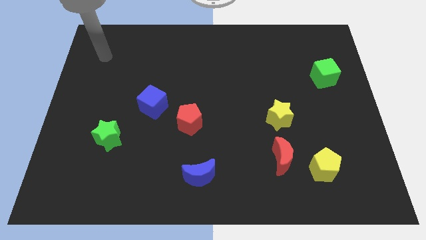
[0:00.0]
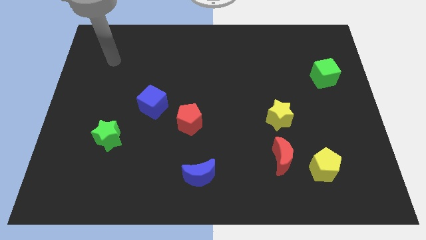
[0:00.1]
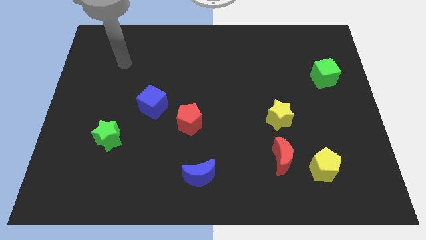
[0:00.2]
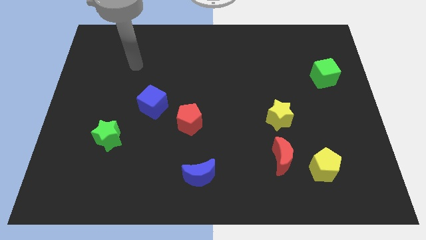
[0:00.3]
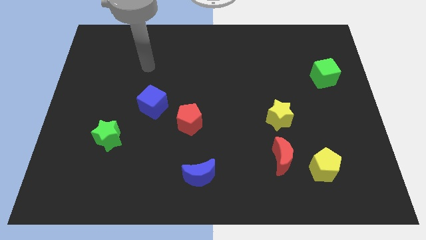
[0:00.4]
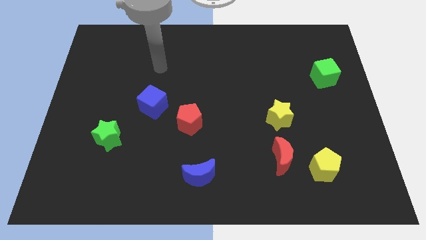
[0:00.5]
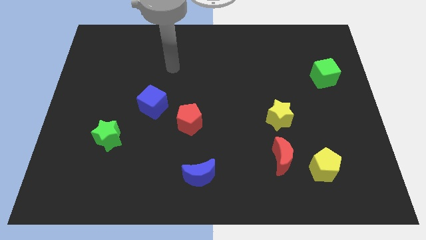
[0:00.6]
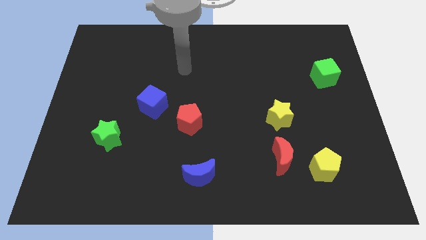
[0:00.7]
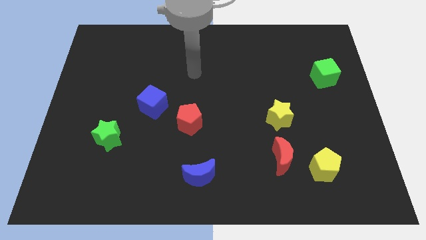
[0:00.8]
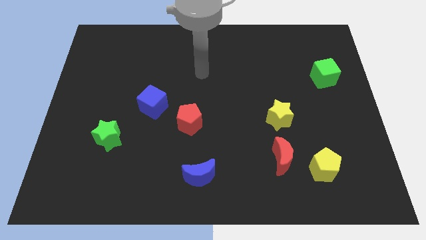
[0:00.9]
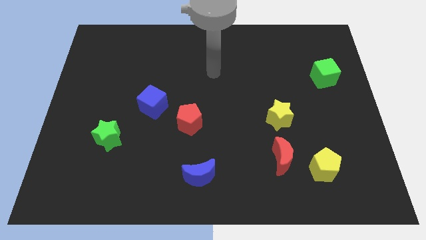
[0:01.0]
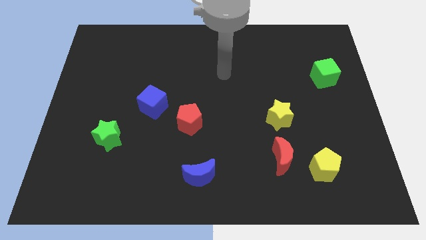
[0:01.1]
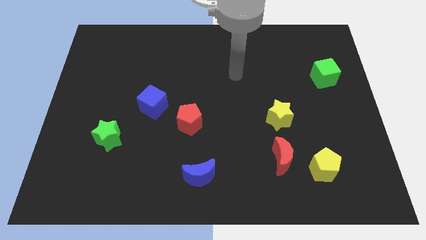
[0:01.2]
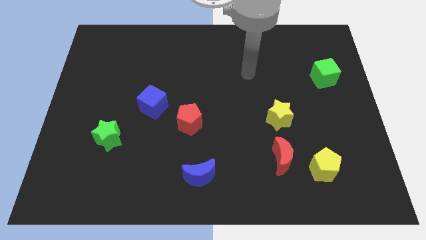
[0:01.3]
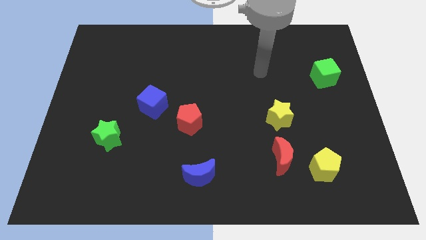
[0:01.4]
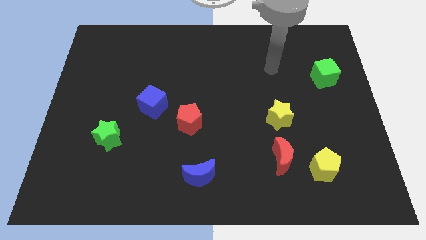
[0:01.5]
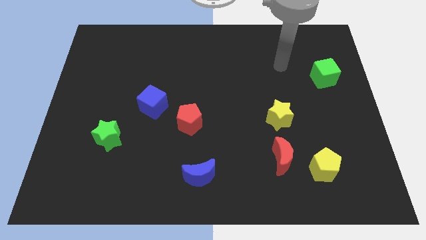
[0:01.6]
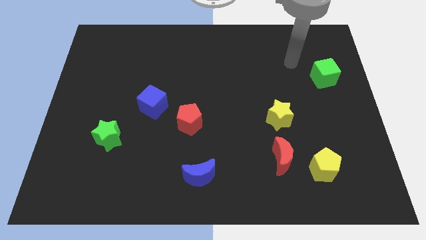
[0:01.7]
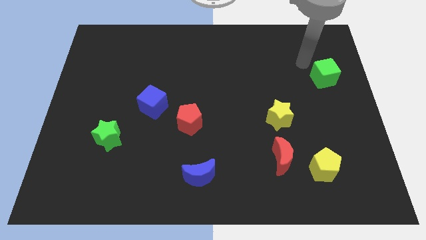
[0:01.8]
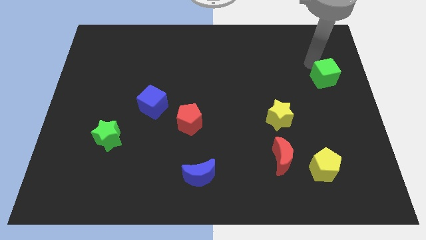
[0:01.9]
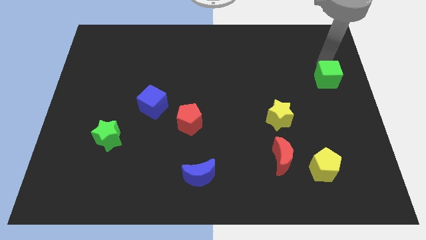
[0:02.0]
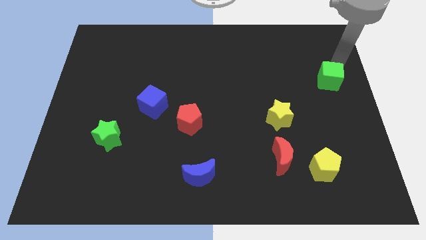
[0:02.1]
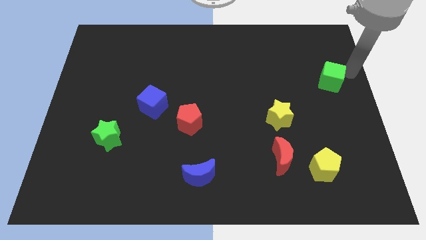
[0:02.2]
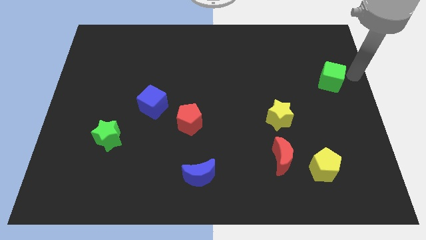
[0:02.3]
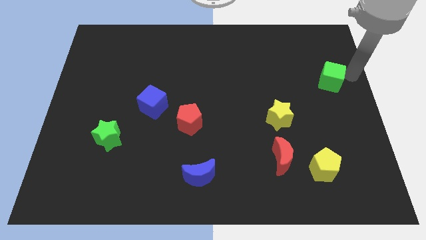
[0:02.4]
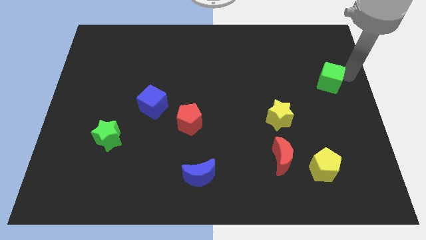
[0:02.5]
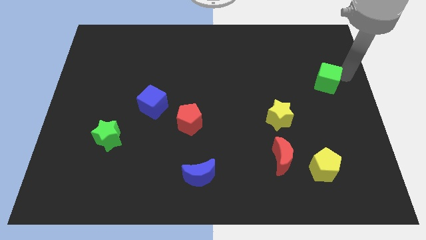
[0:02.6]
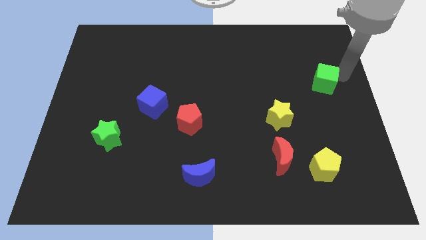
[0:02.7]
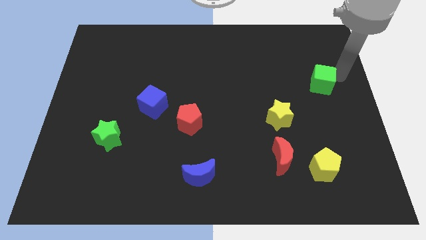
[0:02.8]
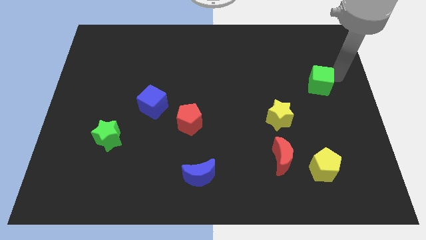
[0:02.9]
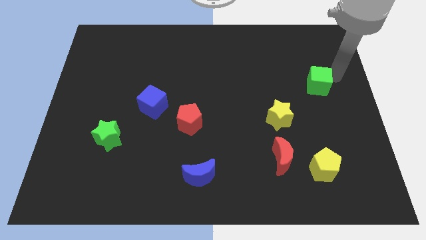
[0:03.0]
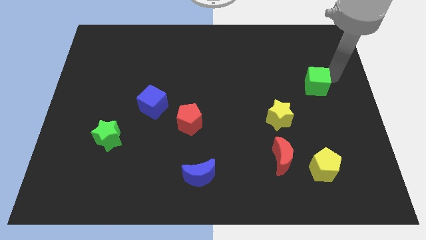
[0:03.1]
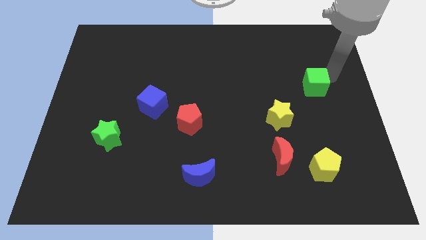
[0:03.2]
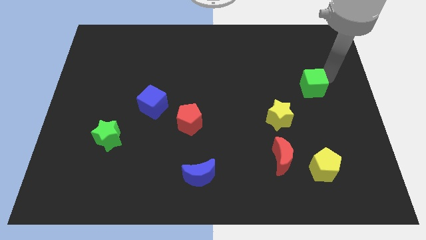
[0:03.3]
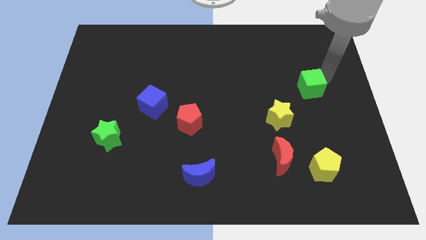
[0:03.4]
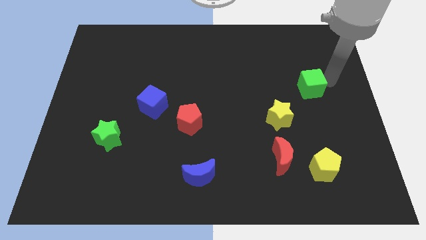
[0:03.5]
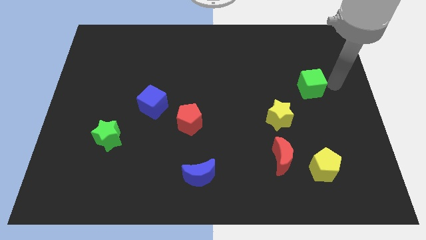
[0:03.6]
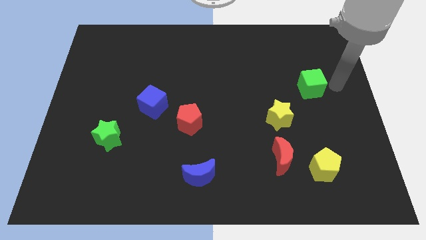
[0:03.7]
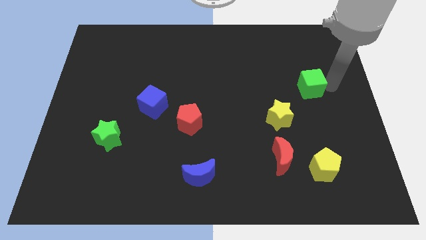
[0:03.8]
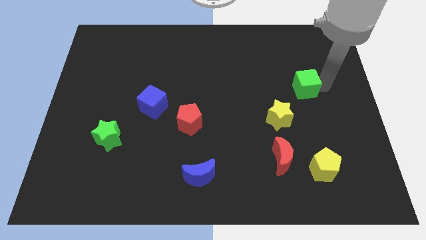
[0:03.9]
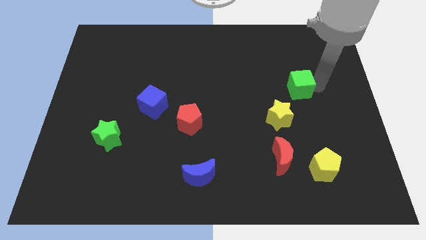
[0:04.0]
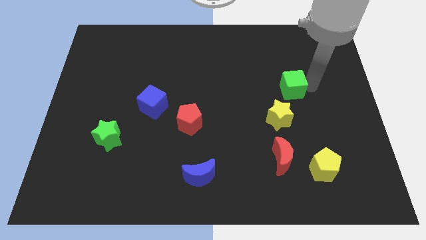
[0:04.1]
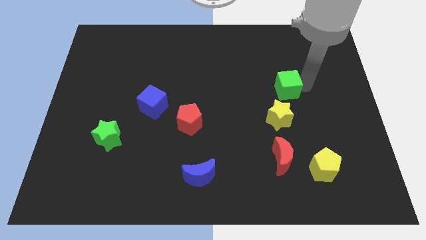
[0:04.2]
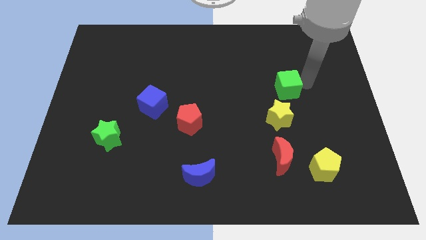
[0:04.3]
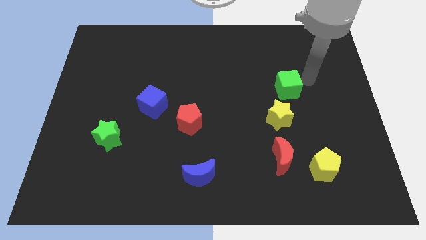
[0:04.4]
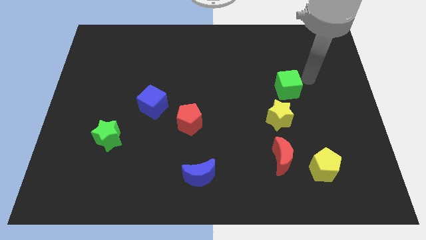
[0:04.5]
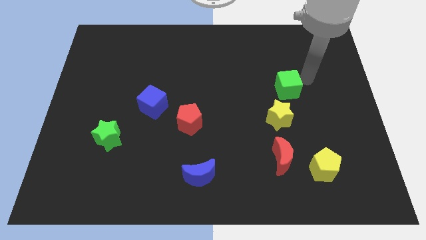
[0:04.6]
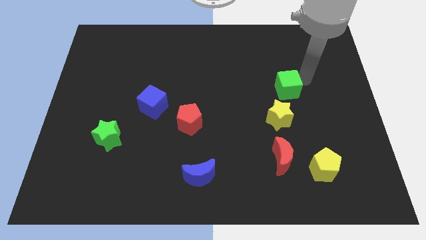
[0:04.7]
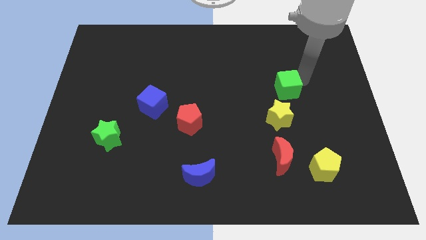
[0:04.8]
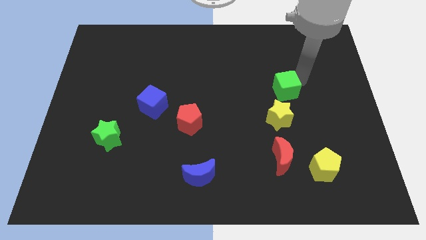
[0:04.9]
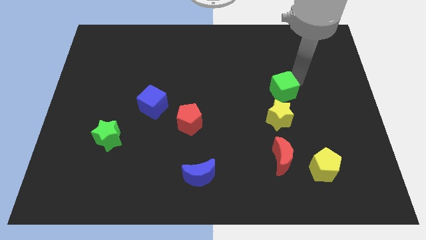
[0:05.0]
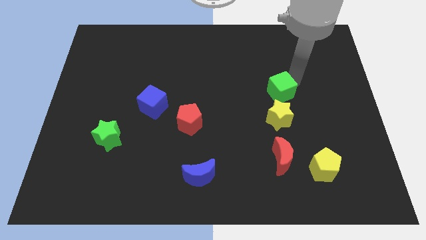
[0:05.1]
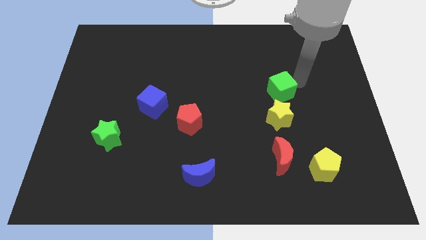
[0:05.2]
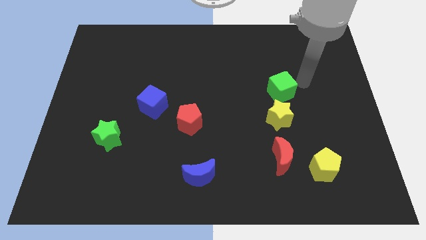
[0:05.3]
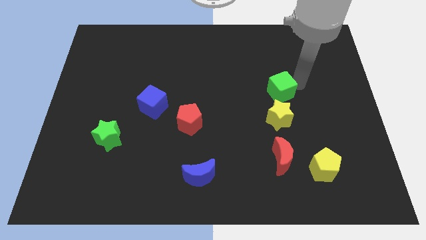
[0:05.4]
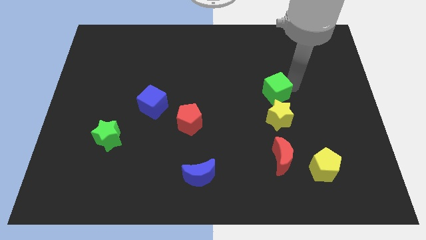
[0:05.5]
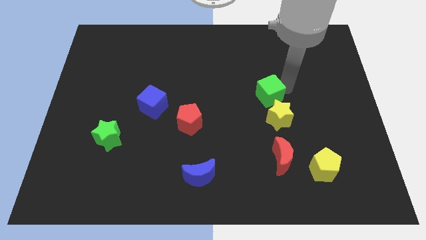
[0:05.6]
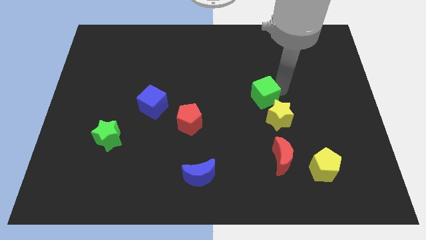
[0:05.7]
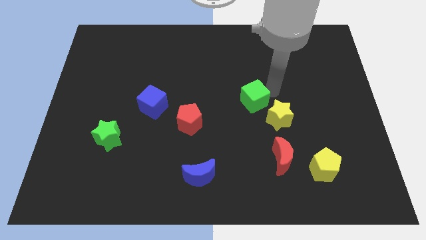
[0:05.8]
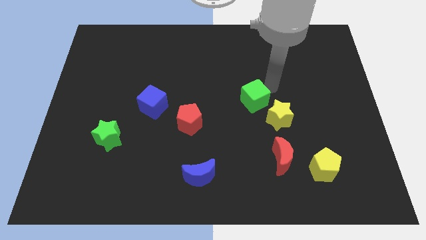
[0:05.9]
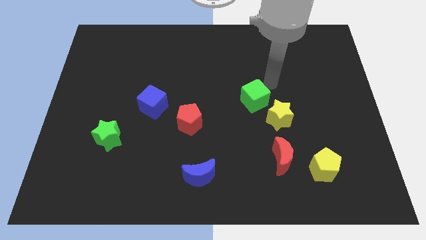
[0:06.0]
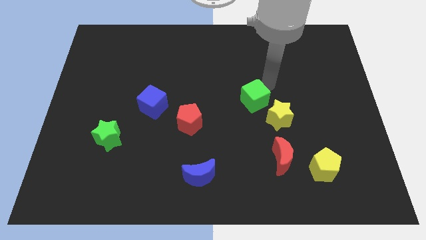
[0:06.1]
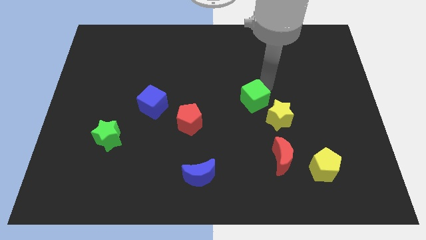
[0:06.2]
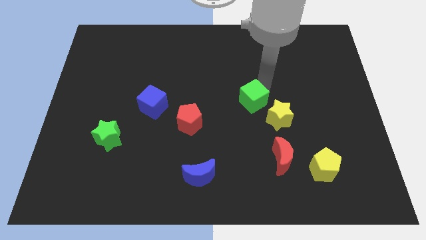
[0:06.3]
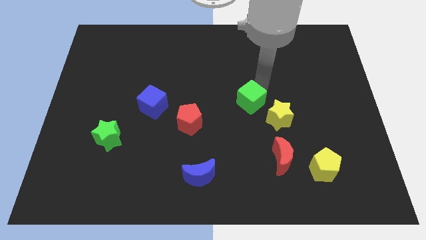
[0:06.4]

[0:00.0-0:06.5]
slide the green cube to the left side of the yellow star

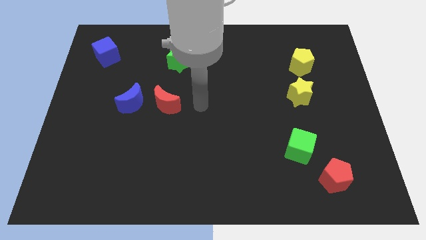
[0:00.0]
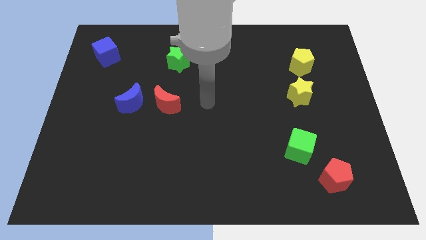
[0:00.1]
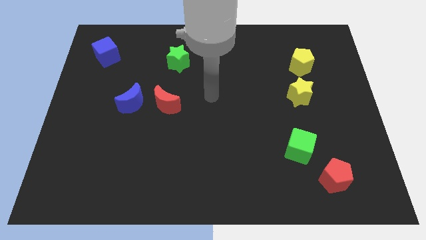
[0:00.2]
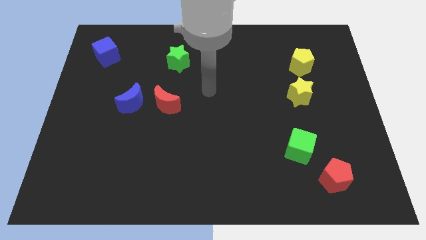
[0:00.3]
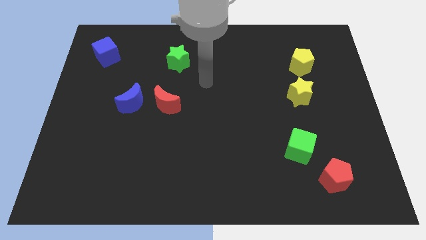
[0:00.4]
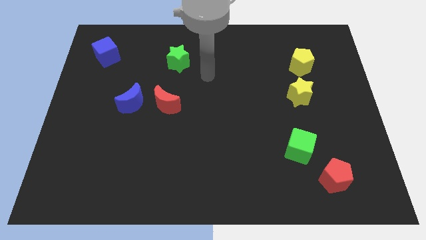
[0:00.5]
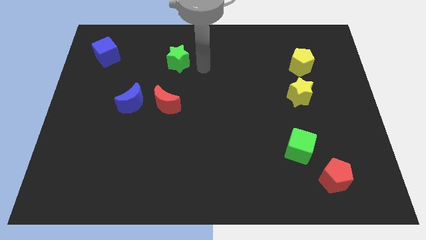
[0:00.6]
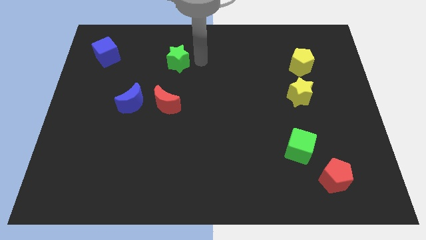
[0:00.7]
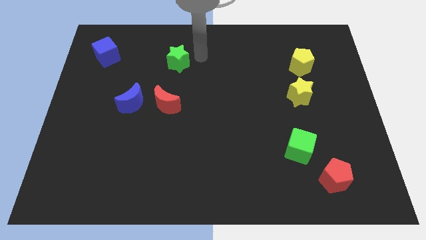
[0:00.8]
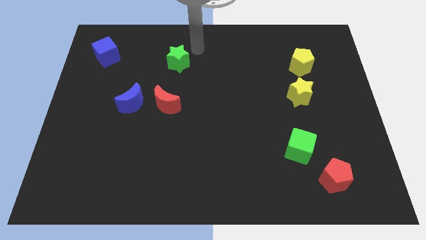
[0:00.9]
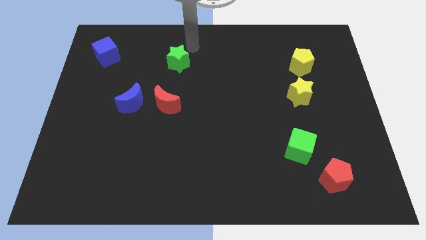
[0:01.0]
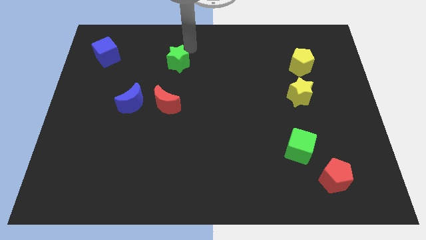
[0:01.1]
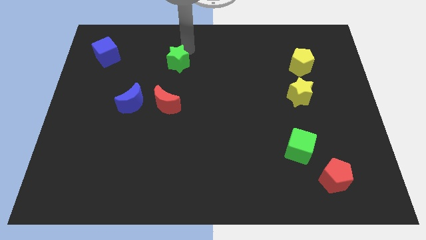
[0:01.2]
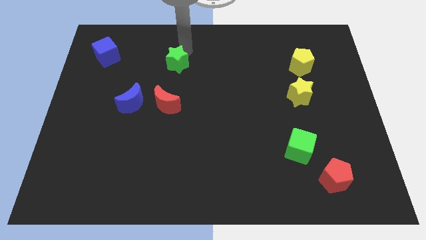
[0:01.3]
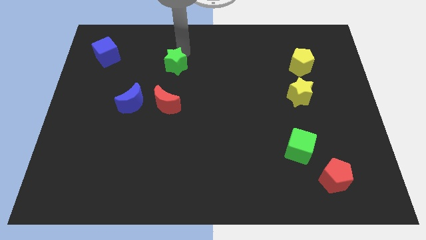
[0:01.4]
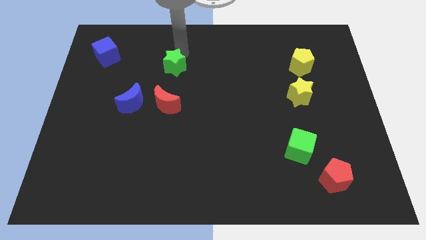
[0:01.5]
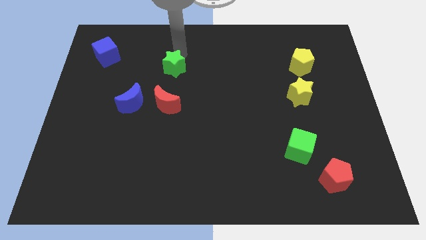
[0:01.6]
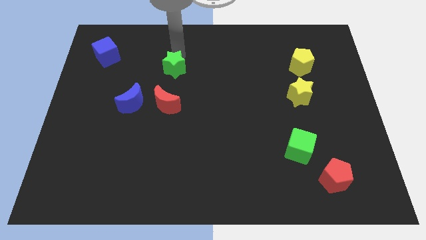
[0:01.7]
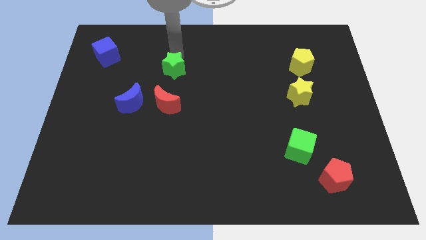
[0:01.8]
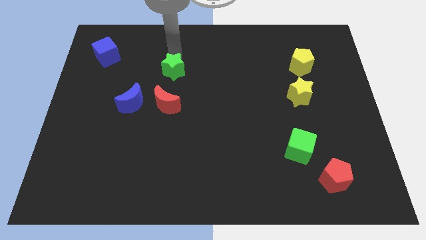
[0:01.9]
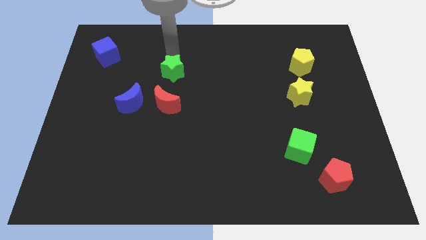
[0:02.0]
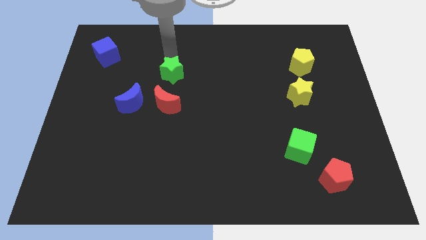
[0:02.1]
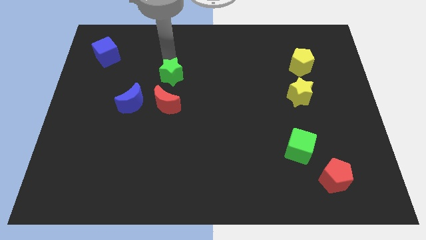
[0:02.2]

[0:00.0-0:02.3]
put the green star diagonally up and to the right of the blue moon
